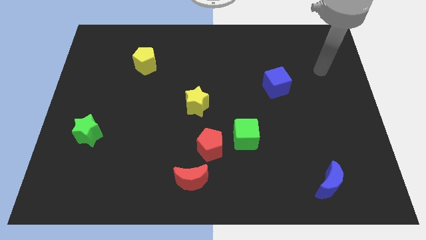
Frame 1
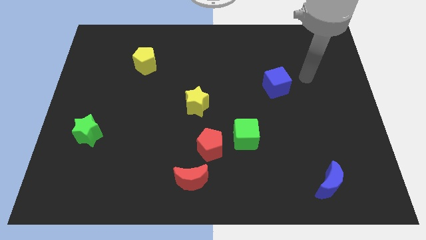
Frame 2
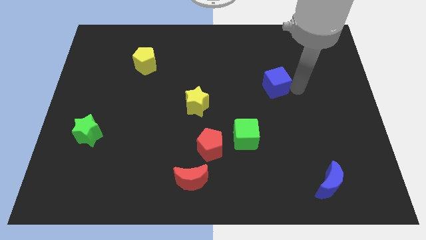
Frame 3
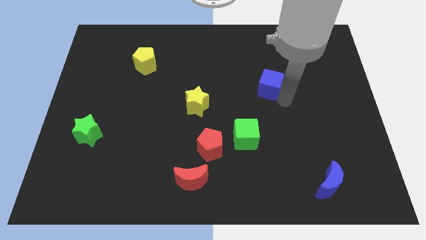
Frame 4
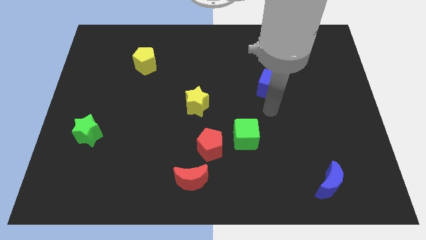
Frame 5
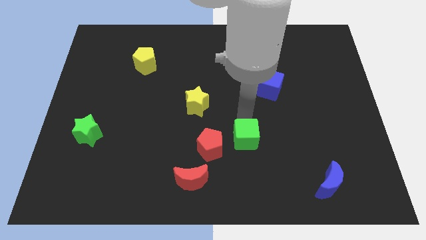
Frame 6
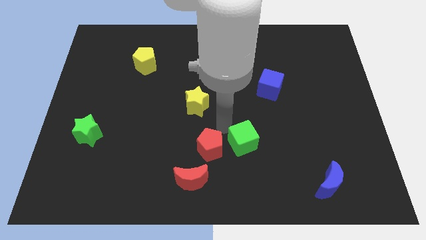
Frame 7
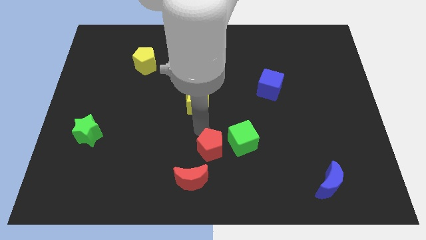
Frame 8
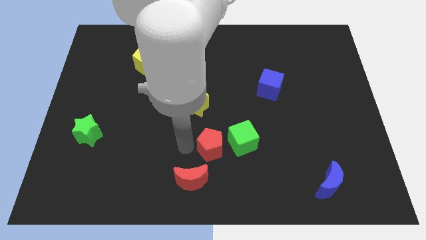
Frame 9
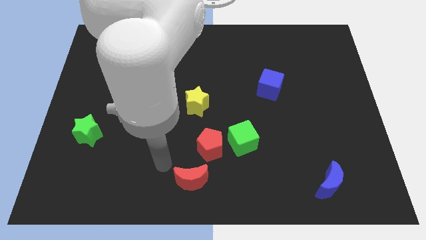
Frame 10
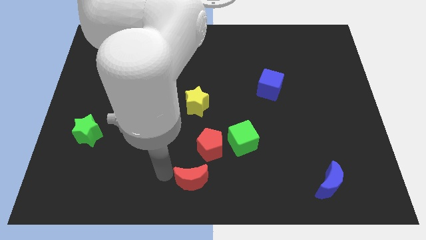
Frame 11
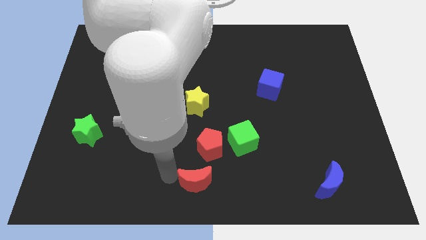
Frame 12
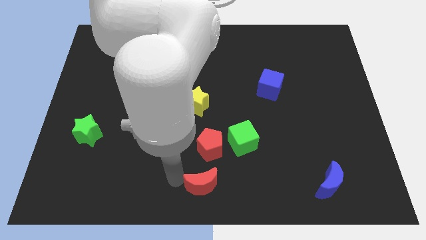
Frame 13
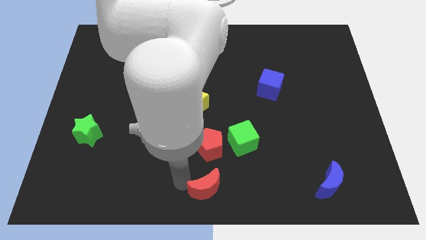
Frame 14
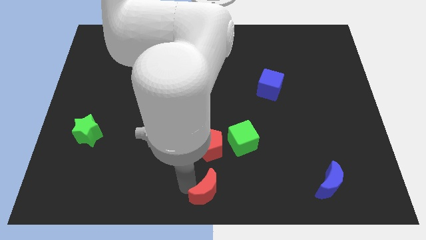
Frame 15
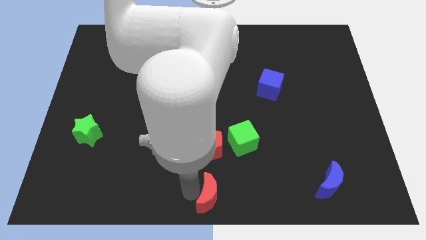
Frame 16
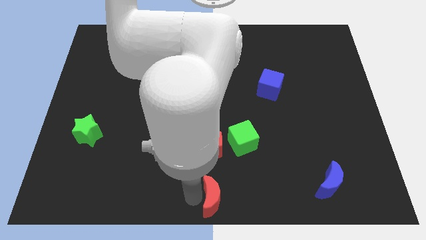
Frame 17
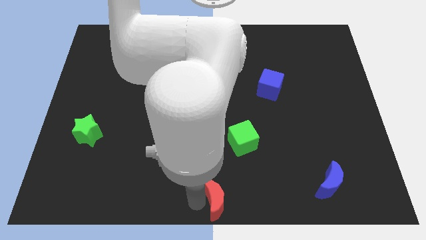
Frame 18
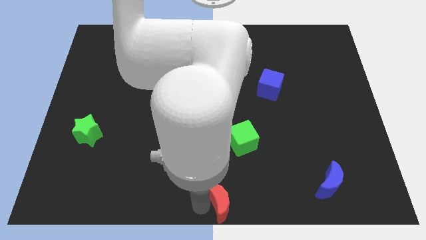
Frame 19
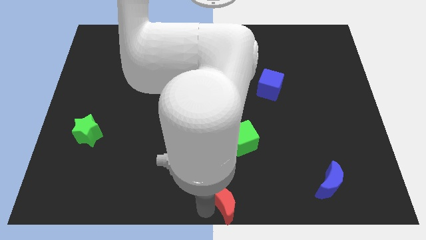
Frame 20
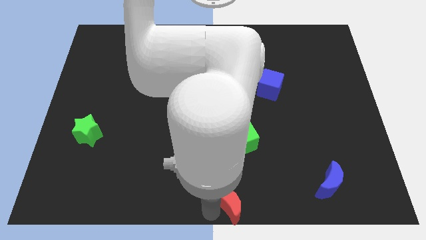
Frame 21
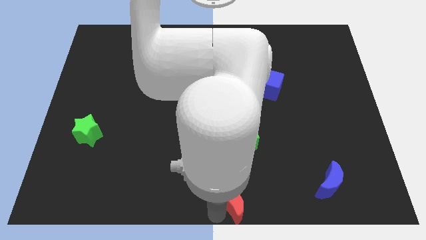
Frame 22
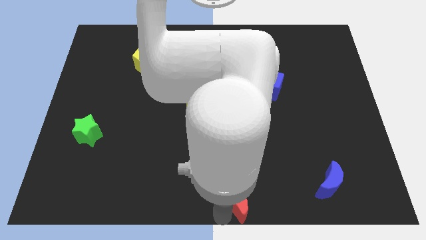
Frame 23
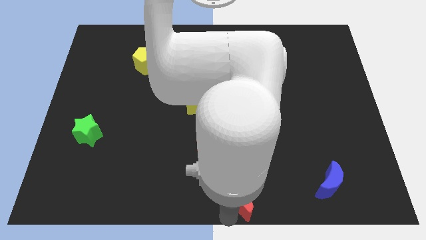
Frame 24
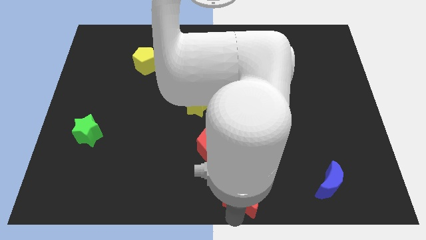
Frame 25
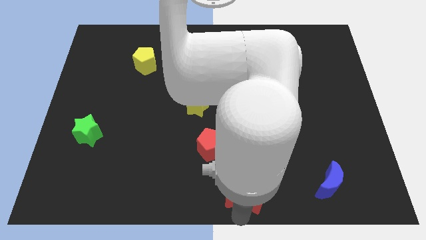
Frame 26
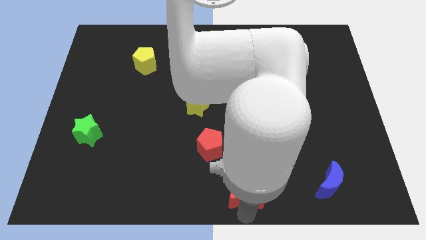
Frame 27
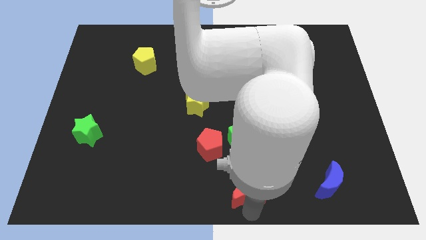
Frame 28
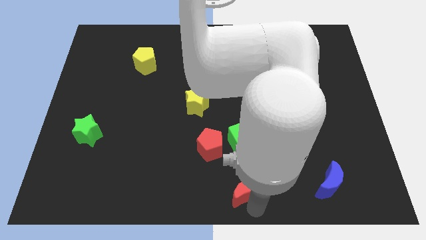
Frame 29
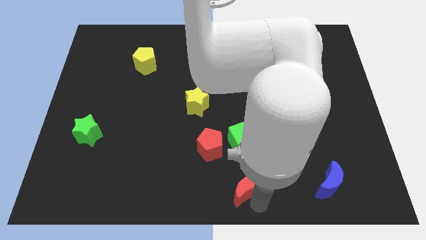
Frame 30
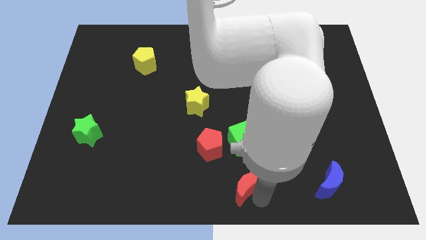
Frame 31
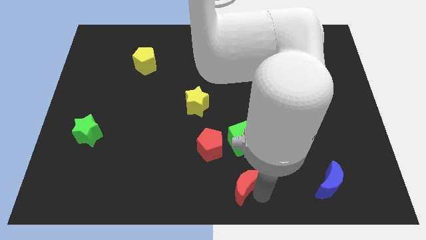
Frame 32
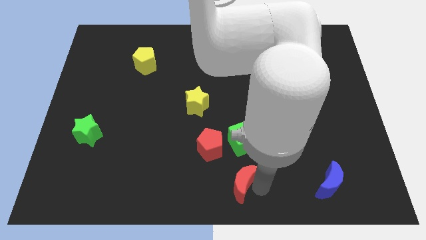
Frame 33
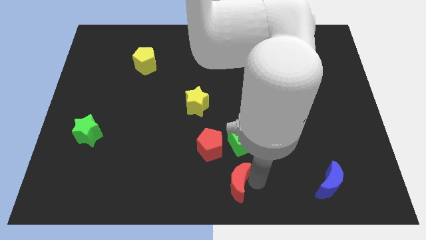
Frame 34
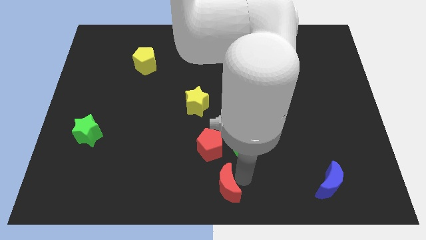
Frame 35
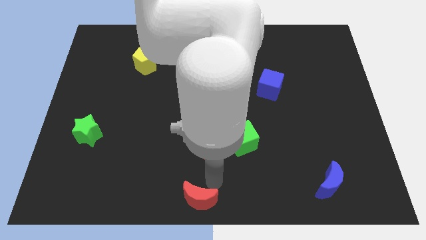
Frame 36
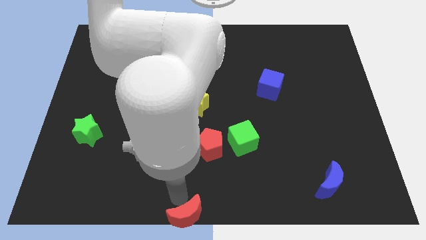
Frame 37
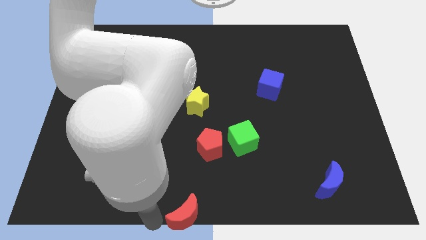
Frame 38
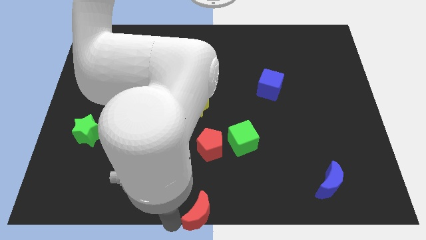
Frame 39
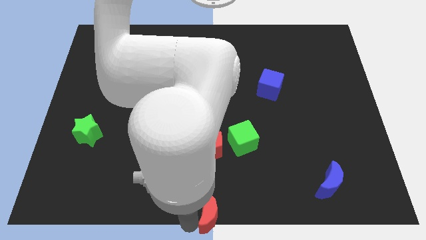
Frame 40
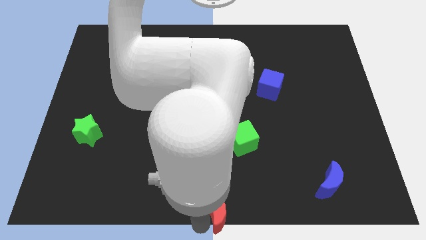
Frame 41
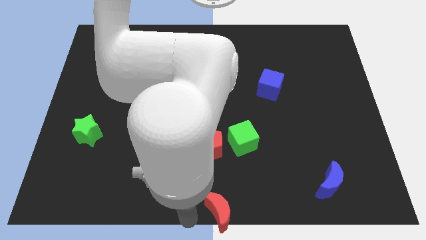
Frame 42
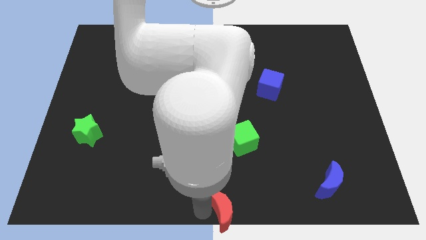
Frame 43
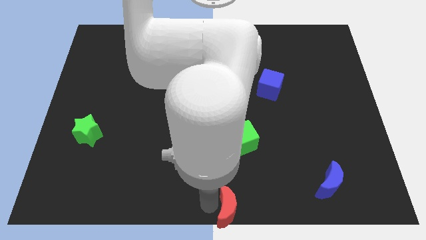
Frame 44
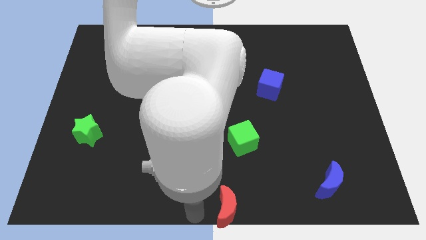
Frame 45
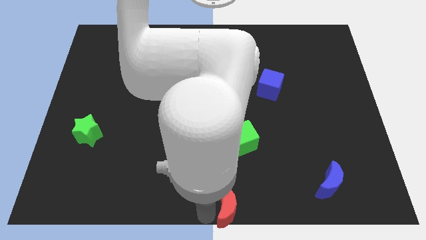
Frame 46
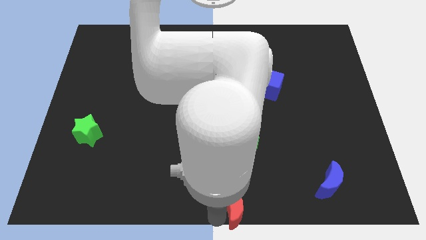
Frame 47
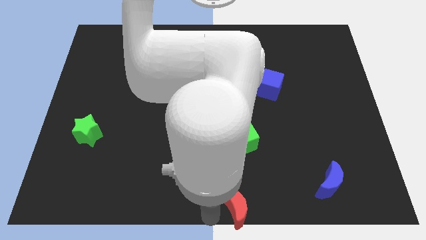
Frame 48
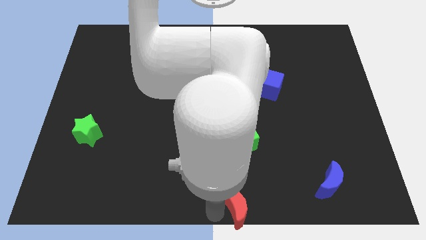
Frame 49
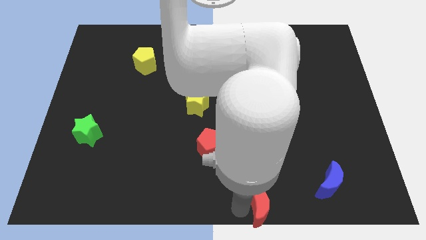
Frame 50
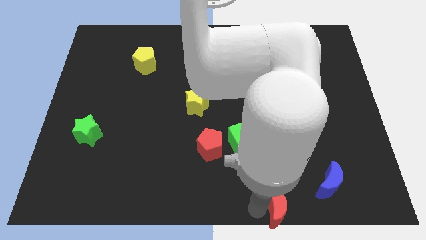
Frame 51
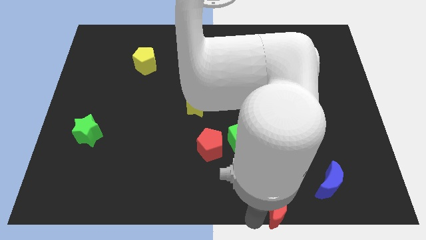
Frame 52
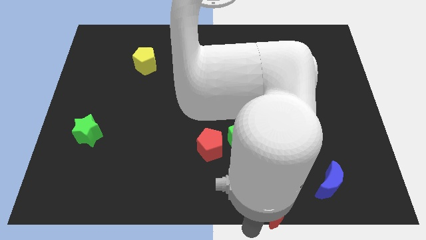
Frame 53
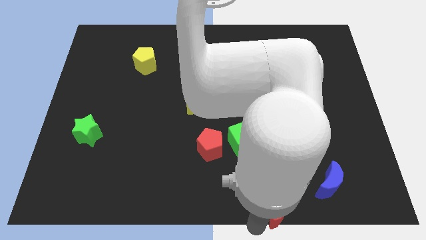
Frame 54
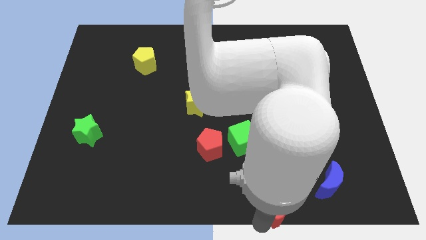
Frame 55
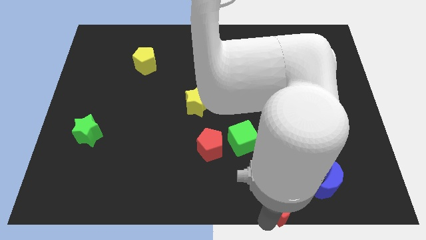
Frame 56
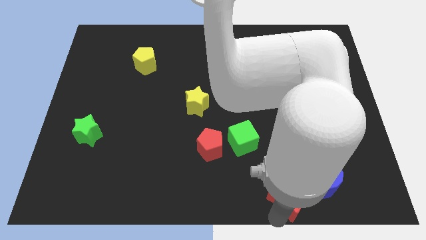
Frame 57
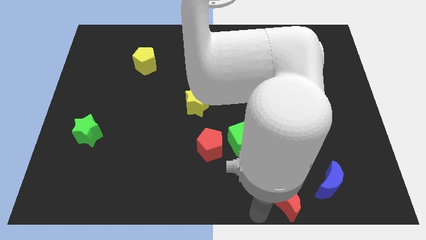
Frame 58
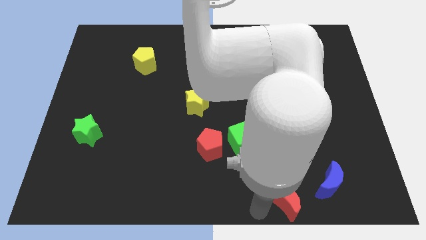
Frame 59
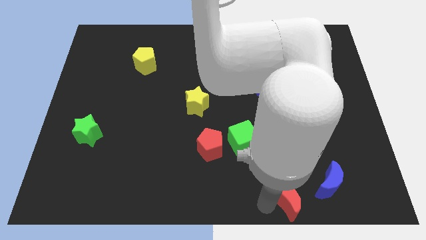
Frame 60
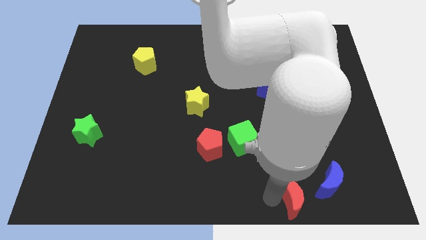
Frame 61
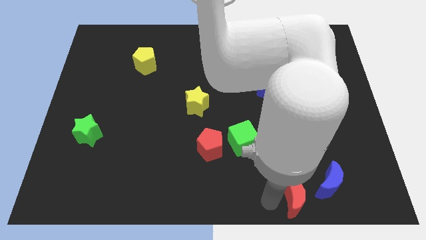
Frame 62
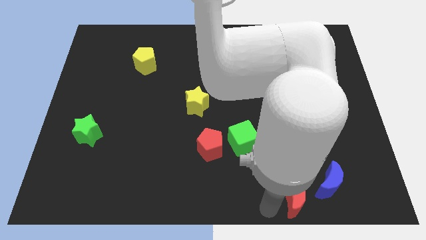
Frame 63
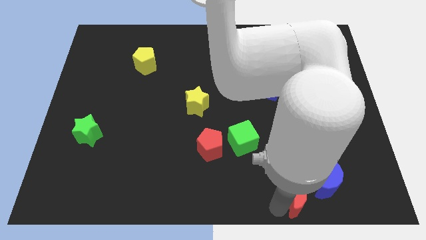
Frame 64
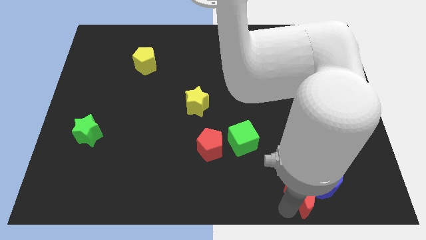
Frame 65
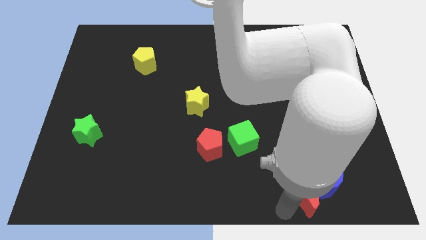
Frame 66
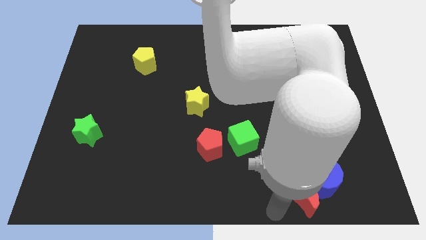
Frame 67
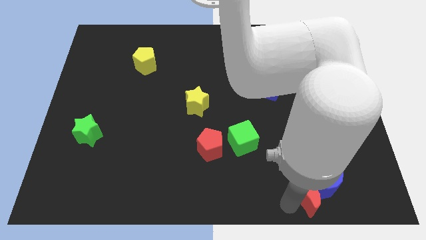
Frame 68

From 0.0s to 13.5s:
put the red moon close to the blue moon

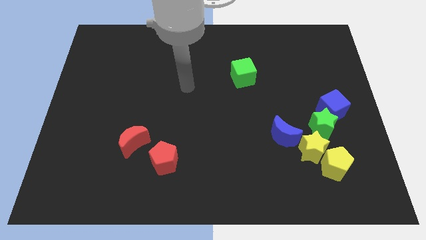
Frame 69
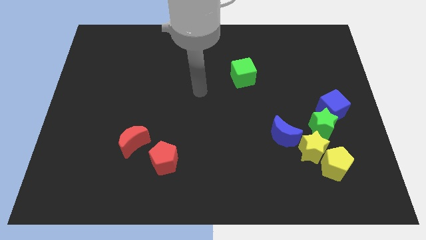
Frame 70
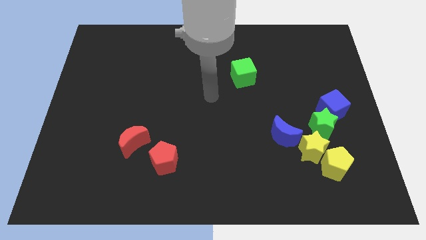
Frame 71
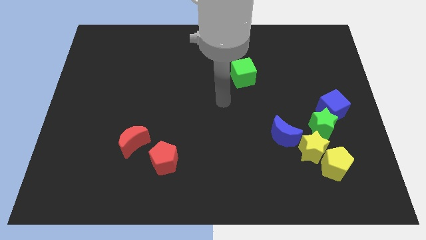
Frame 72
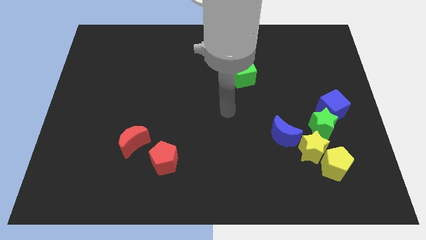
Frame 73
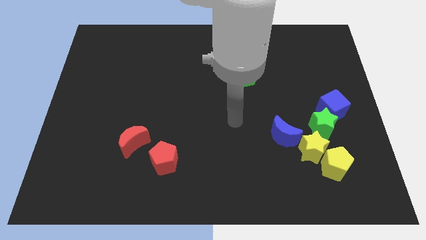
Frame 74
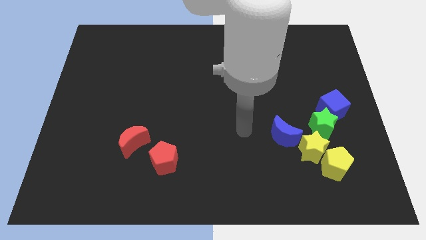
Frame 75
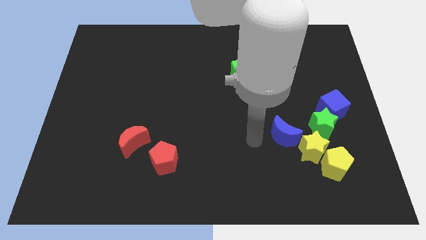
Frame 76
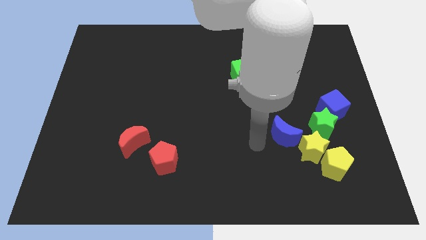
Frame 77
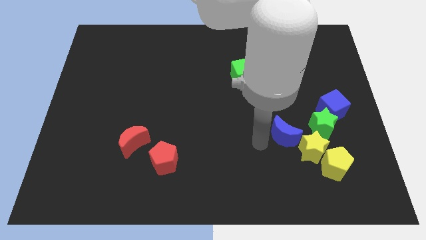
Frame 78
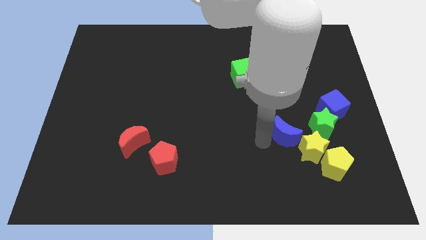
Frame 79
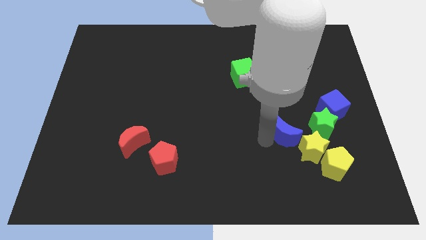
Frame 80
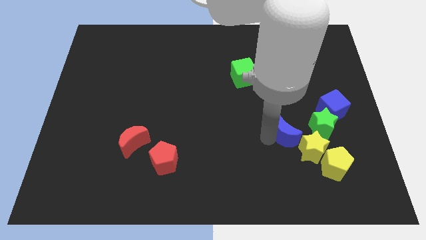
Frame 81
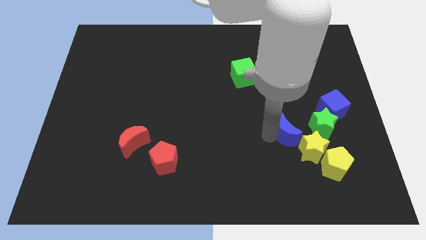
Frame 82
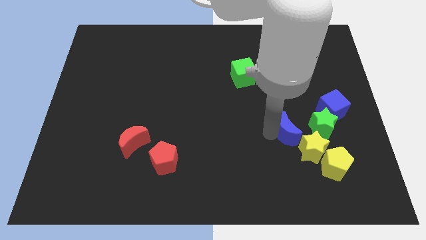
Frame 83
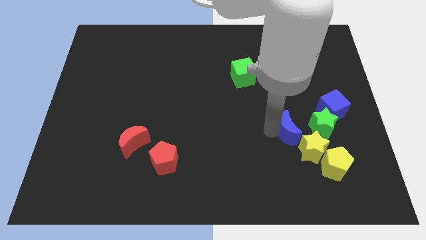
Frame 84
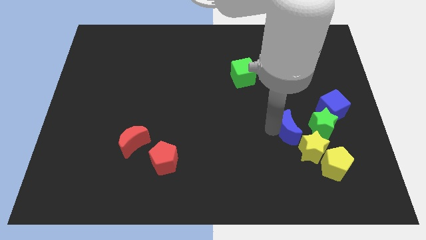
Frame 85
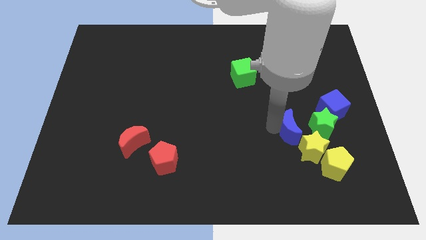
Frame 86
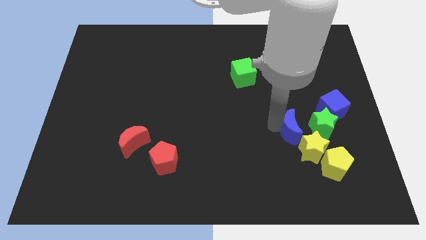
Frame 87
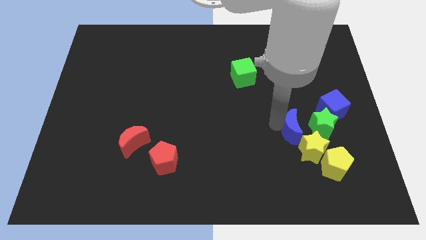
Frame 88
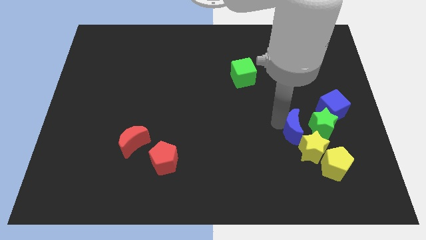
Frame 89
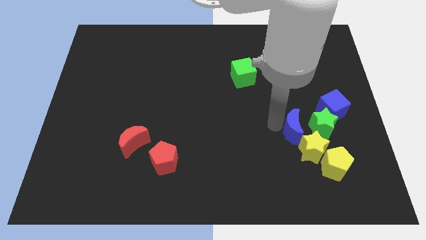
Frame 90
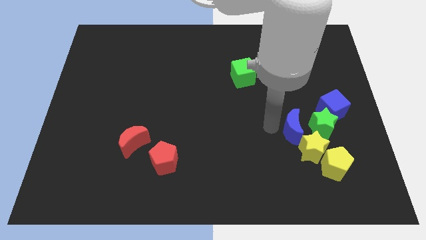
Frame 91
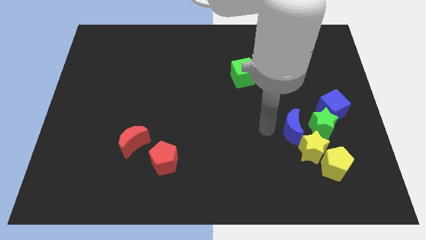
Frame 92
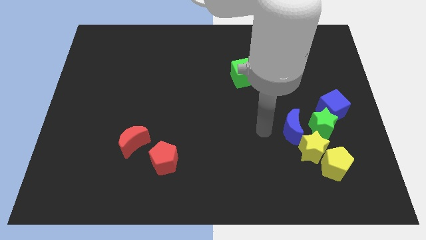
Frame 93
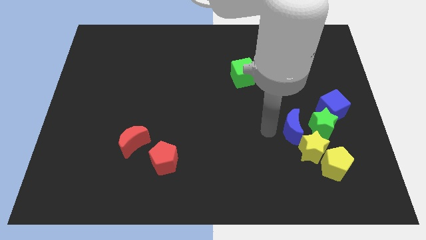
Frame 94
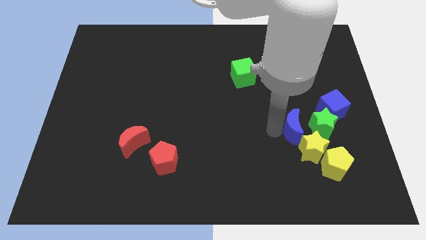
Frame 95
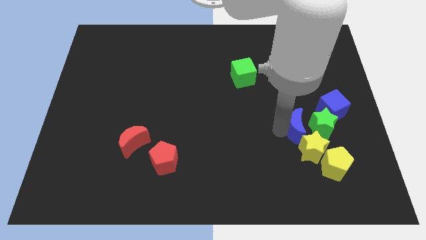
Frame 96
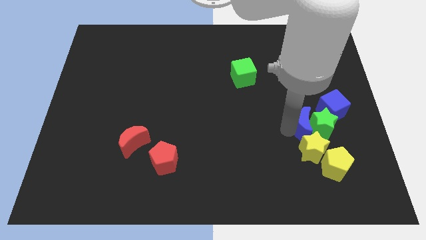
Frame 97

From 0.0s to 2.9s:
move the blue moon towards the green star
